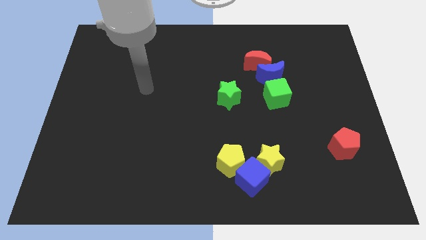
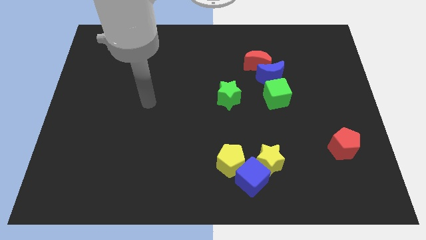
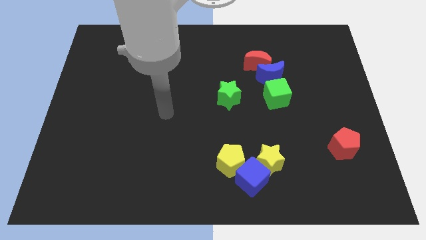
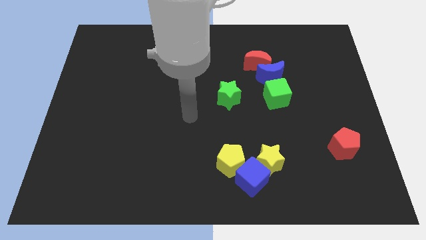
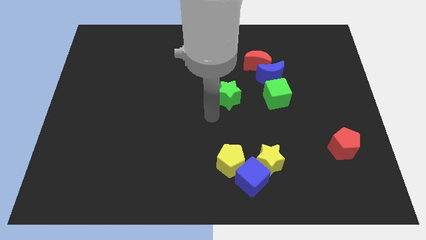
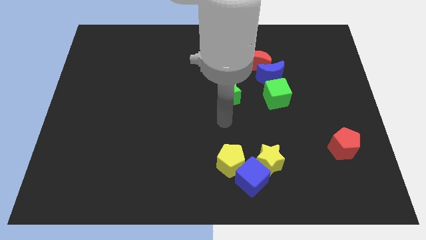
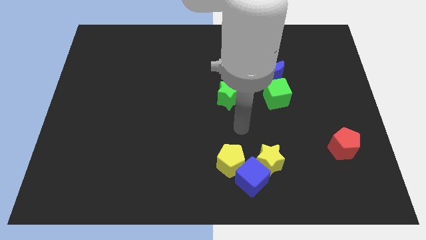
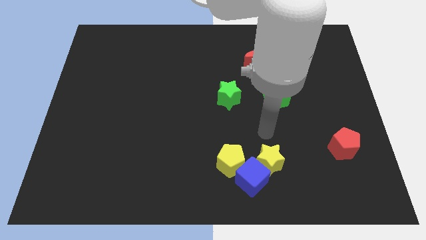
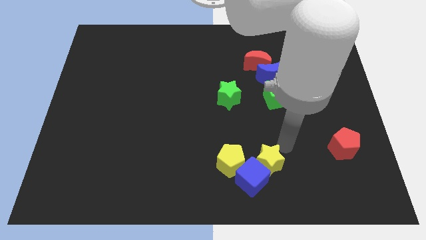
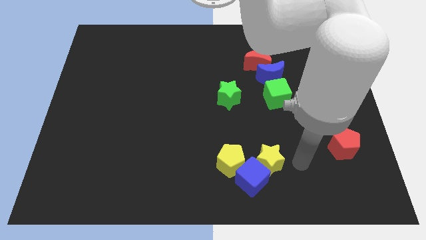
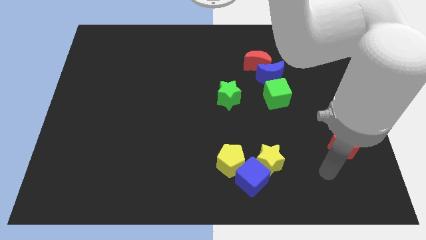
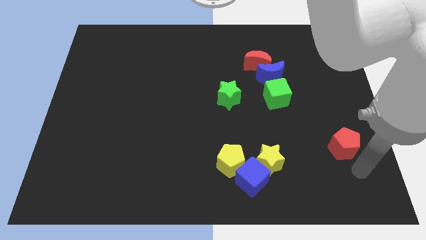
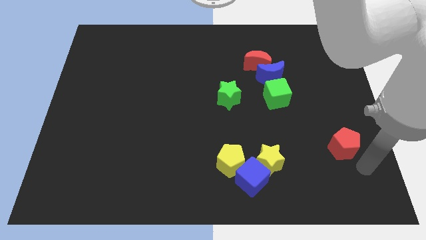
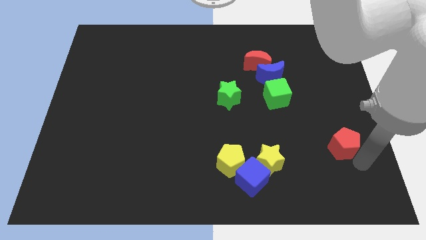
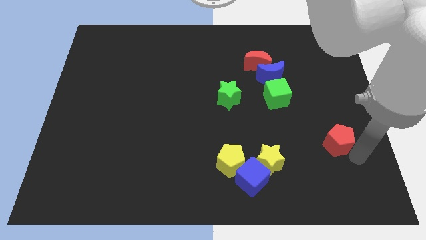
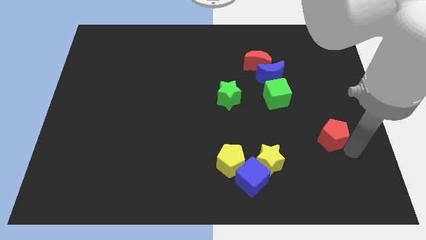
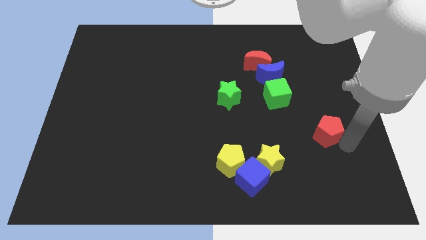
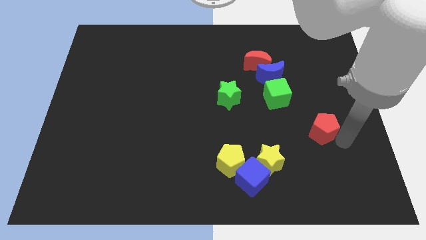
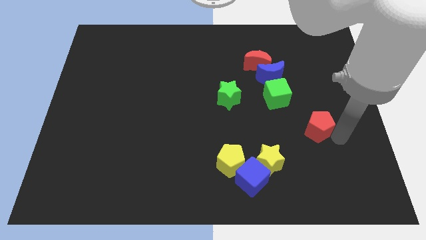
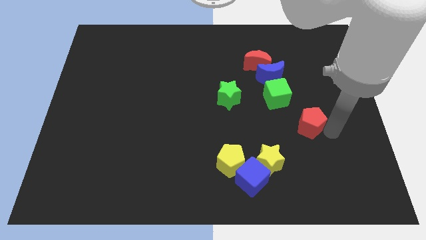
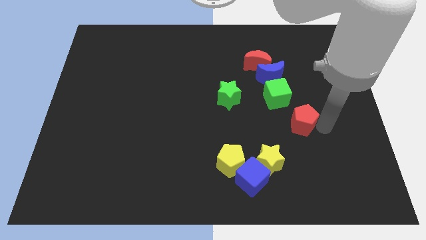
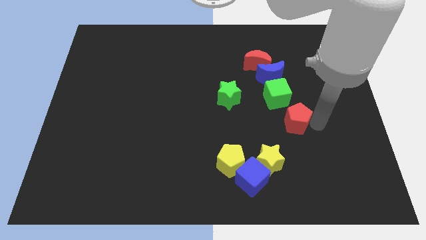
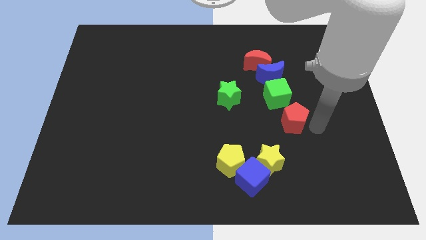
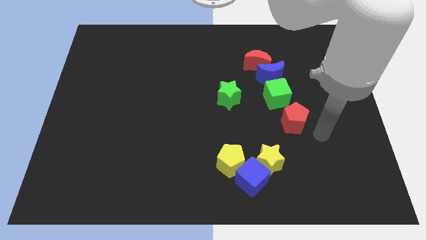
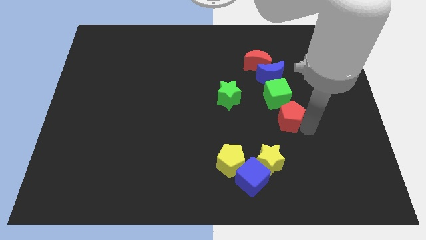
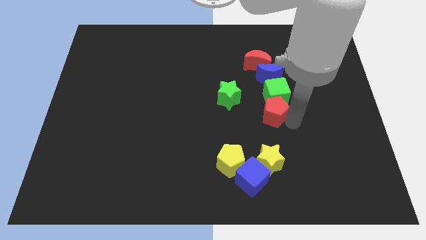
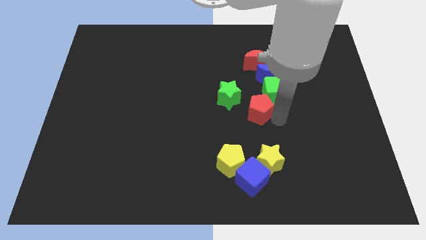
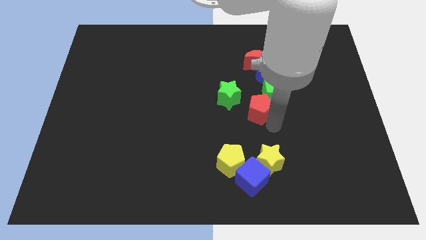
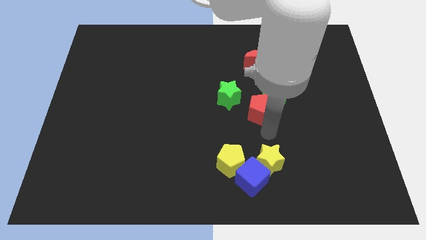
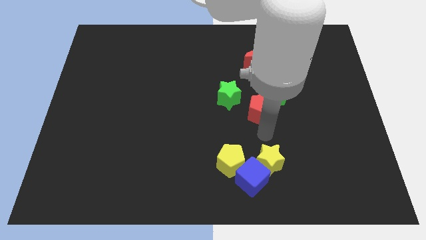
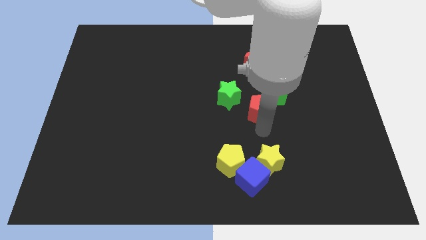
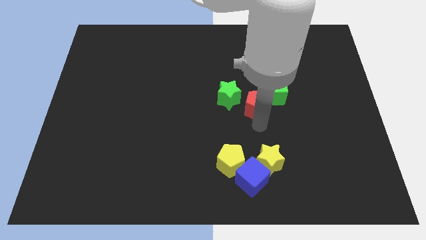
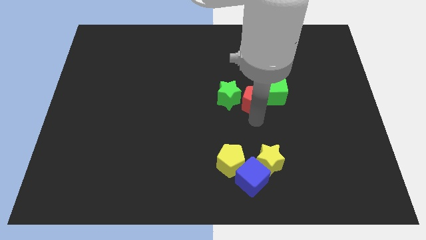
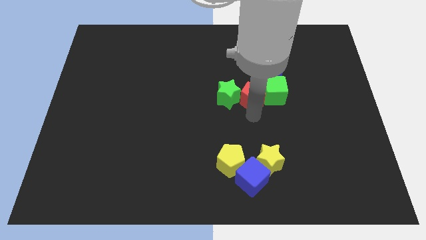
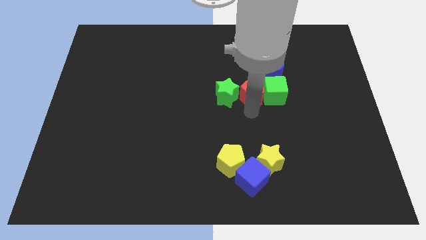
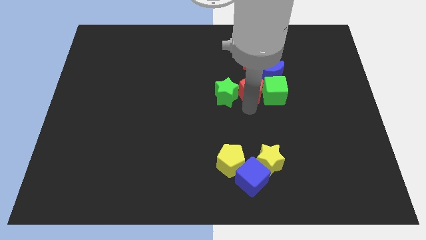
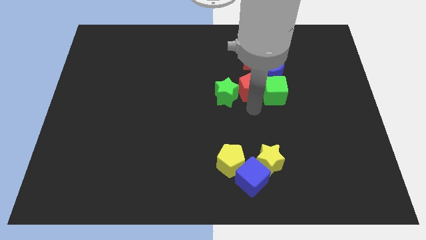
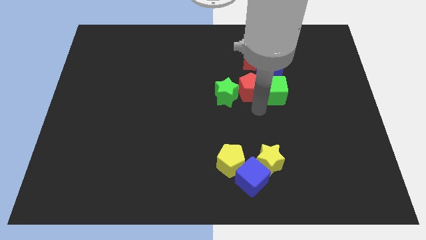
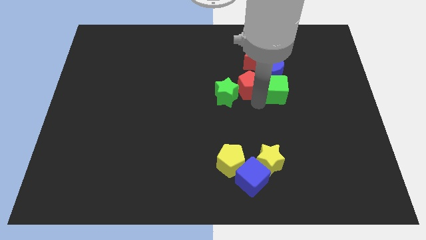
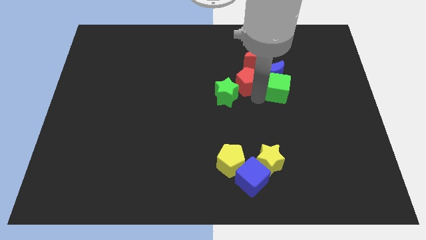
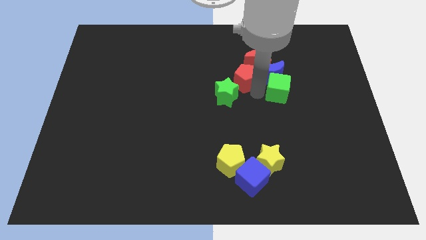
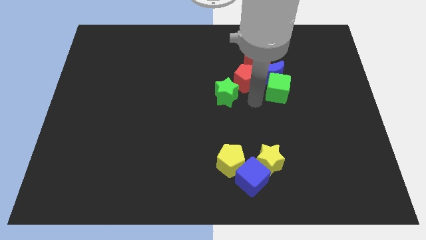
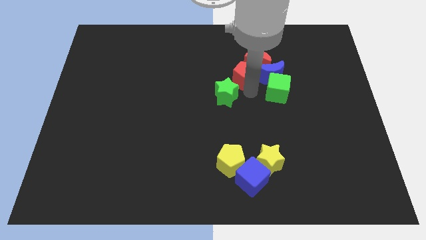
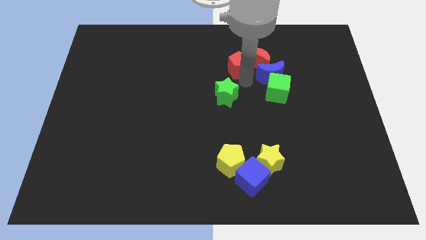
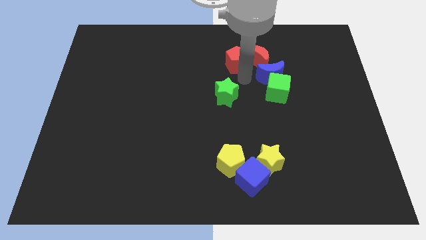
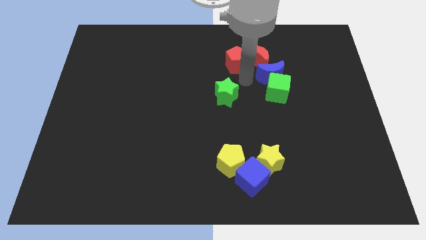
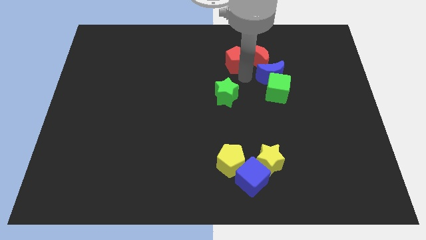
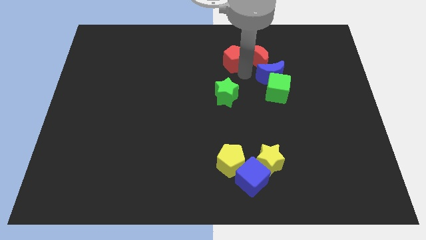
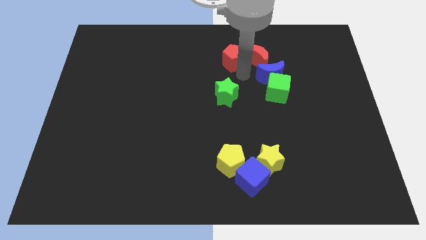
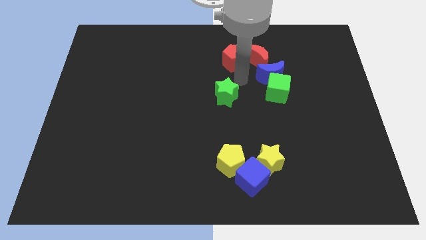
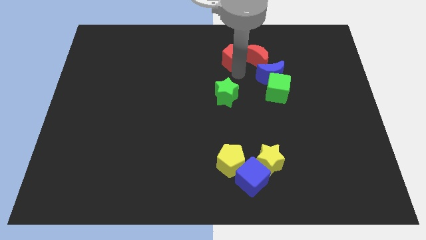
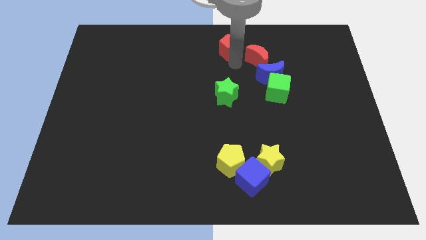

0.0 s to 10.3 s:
slide the red pentagon to the top side
